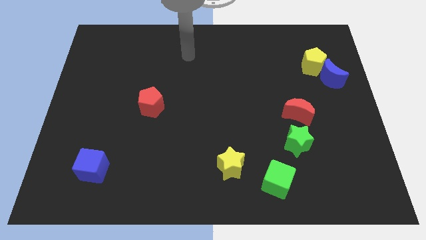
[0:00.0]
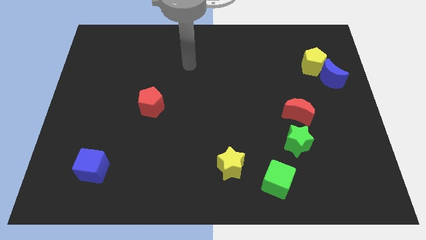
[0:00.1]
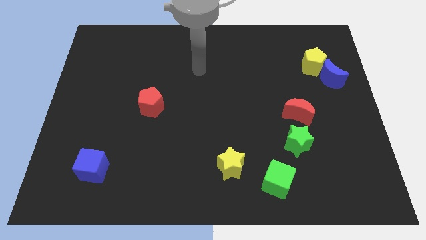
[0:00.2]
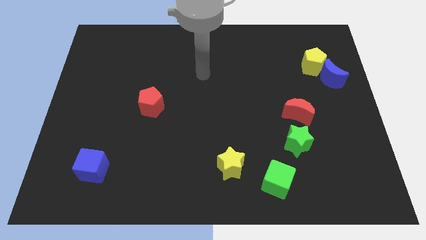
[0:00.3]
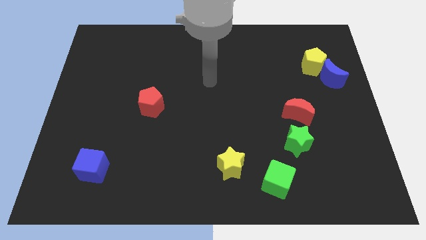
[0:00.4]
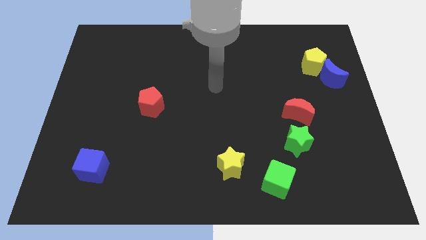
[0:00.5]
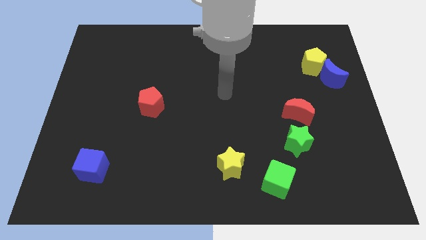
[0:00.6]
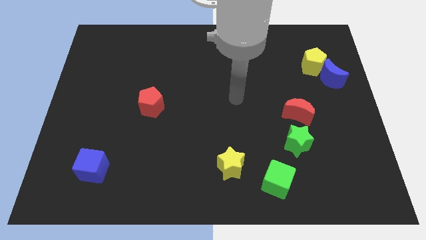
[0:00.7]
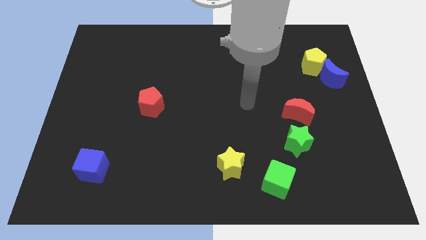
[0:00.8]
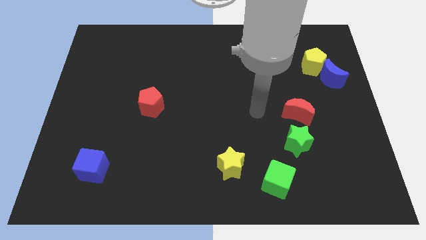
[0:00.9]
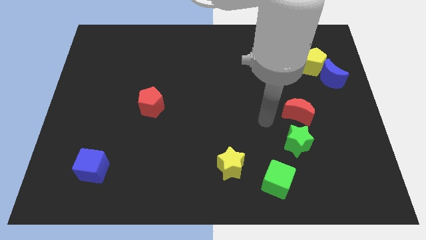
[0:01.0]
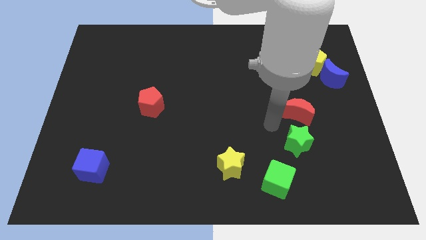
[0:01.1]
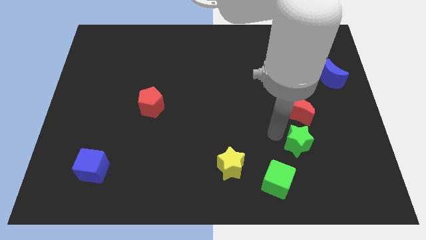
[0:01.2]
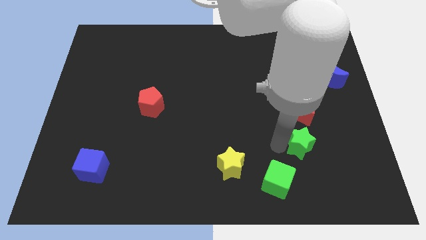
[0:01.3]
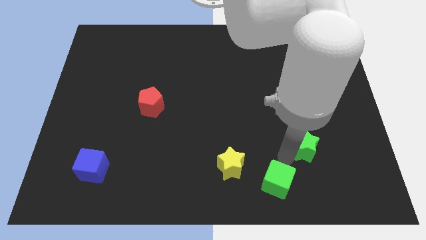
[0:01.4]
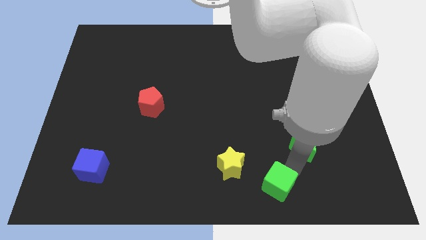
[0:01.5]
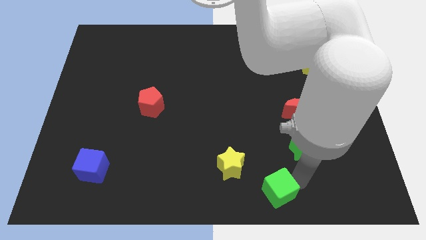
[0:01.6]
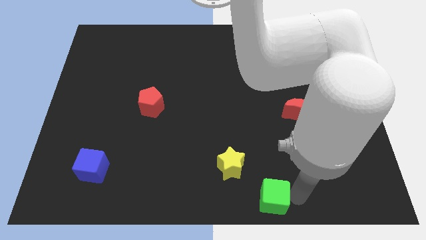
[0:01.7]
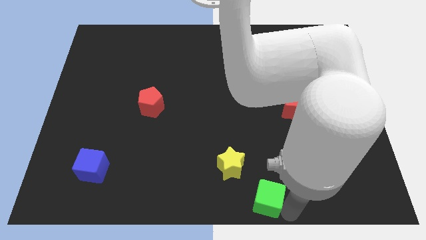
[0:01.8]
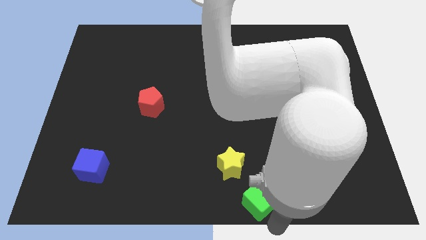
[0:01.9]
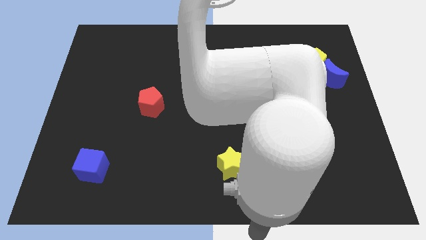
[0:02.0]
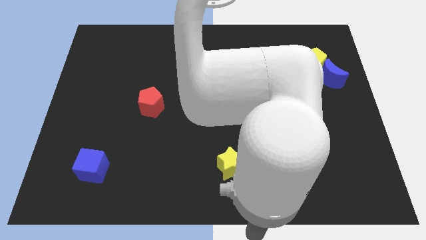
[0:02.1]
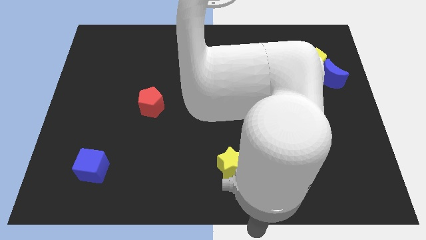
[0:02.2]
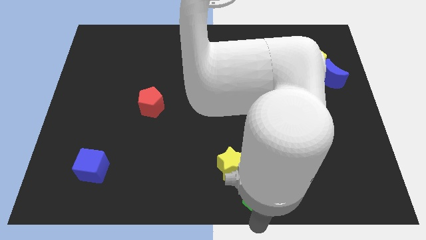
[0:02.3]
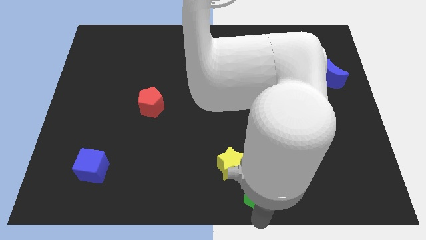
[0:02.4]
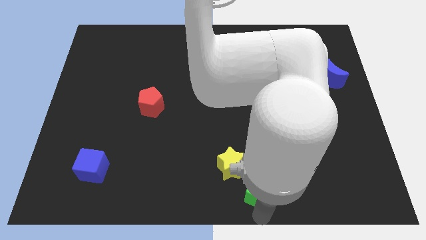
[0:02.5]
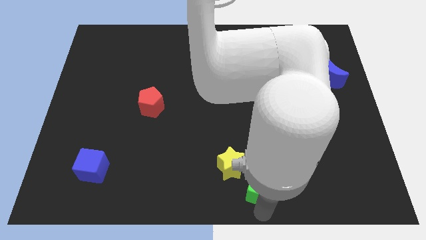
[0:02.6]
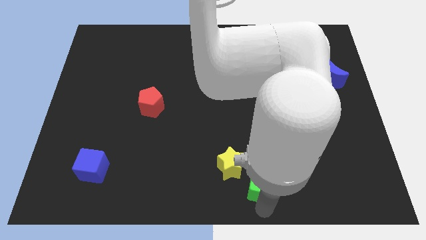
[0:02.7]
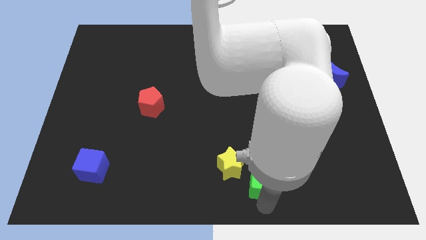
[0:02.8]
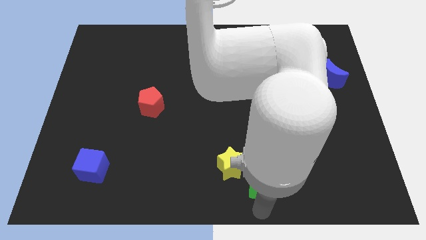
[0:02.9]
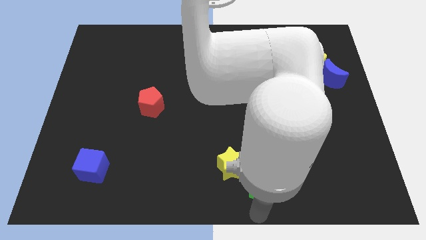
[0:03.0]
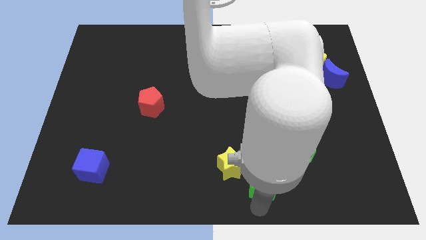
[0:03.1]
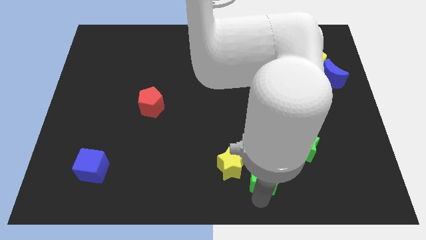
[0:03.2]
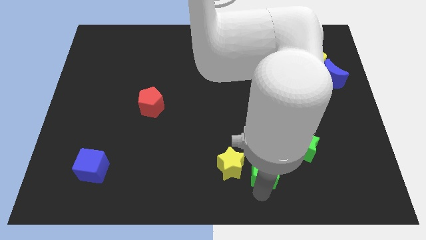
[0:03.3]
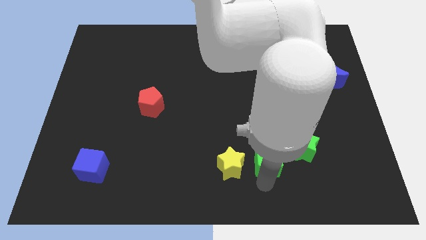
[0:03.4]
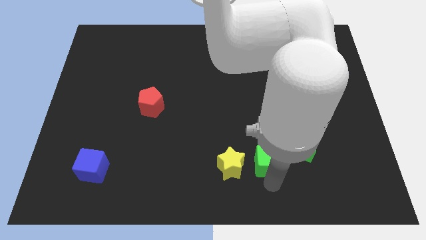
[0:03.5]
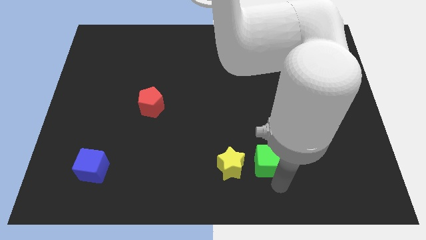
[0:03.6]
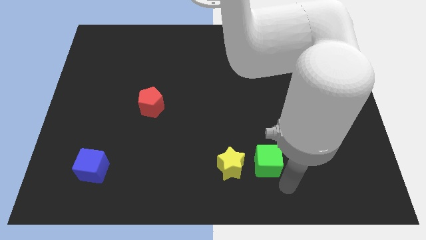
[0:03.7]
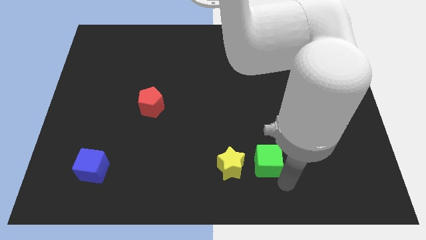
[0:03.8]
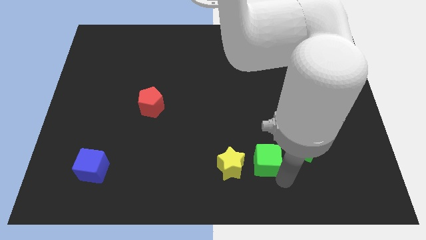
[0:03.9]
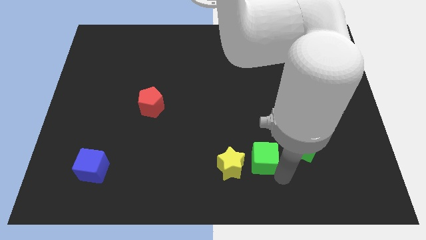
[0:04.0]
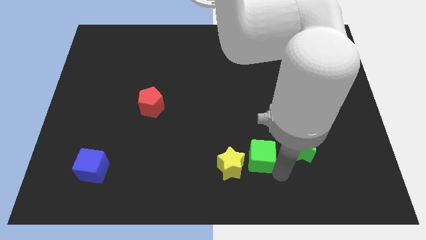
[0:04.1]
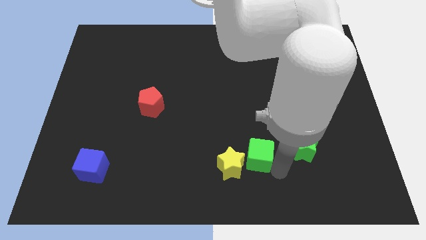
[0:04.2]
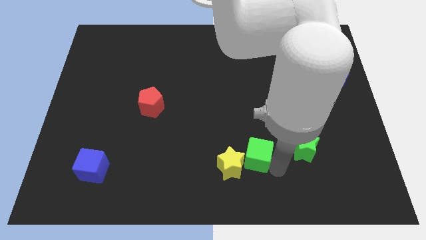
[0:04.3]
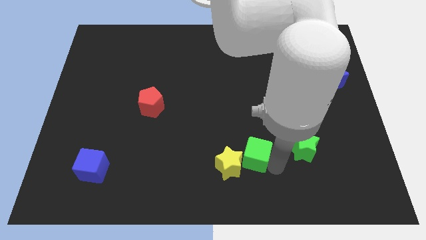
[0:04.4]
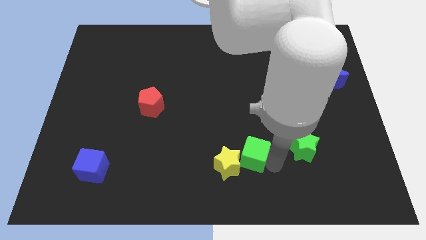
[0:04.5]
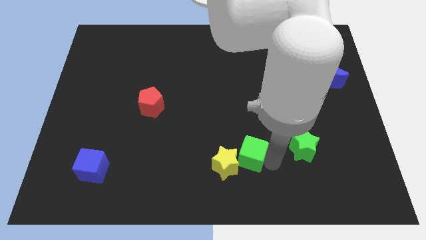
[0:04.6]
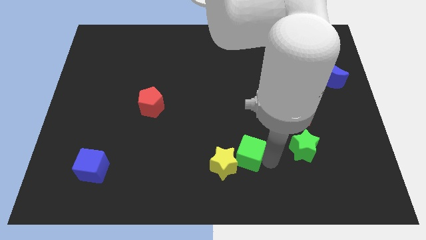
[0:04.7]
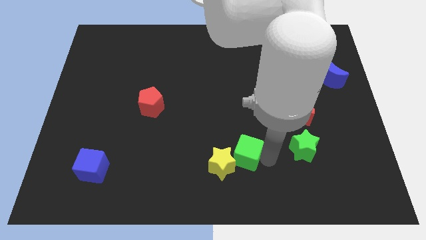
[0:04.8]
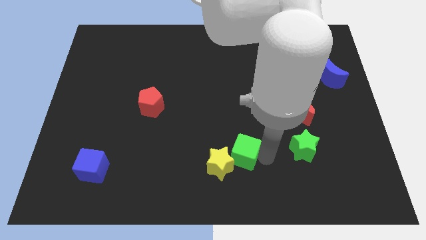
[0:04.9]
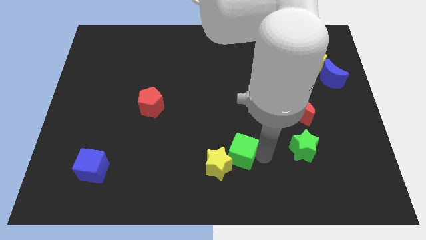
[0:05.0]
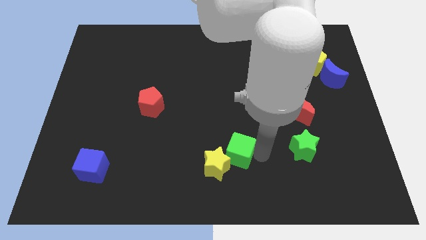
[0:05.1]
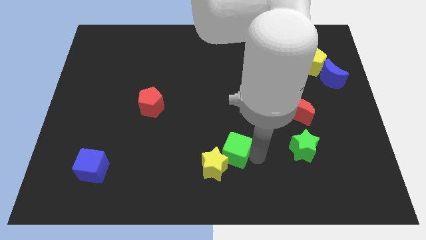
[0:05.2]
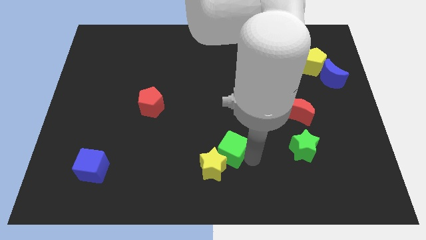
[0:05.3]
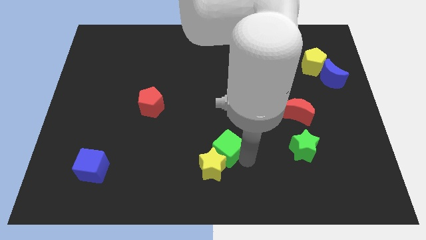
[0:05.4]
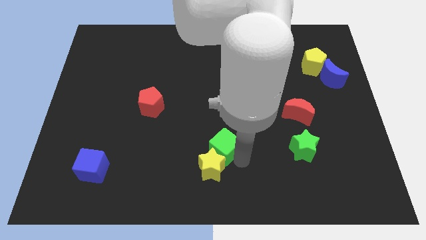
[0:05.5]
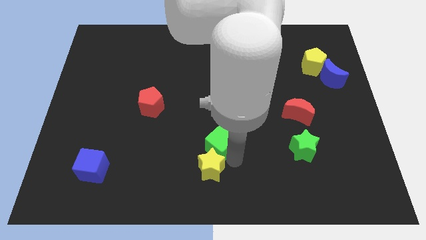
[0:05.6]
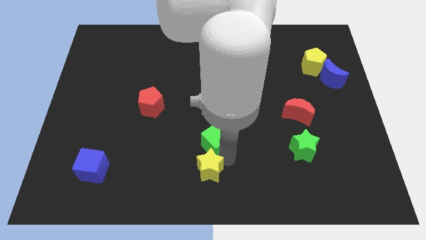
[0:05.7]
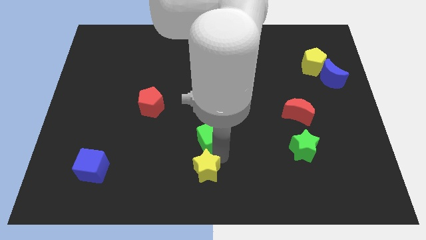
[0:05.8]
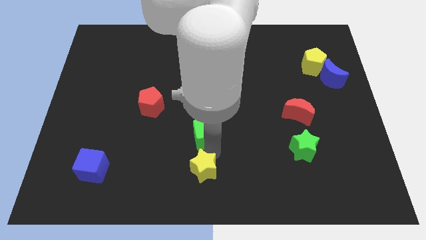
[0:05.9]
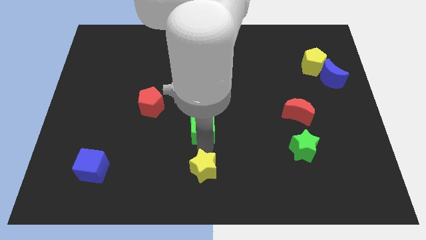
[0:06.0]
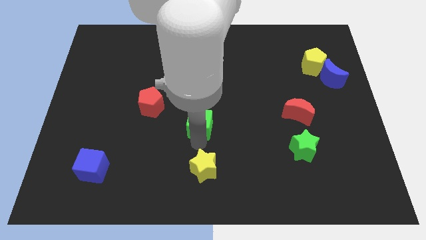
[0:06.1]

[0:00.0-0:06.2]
move the green cube upwards and left diagonally

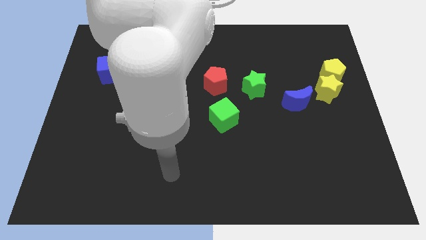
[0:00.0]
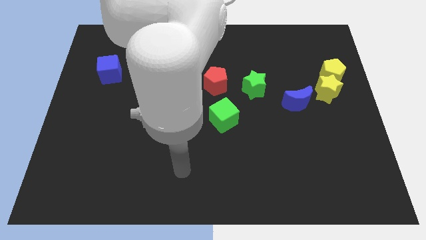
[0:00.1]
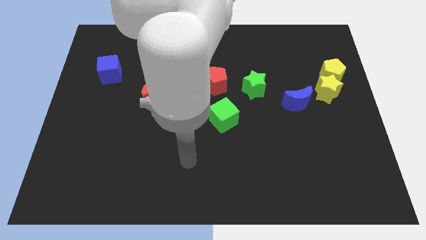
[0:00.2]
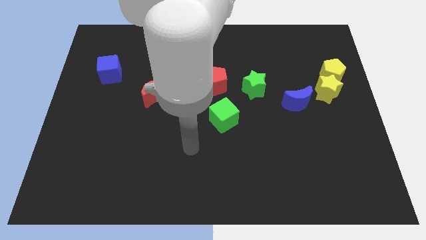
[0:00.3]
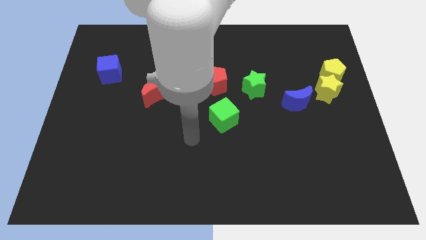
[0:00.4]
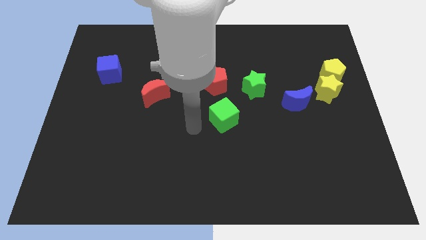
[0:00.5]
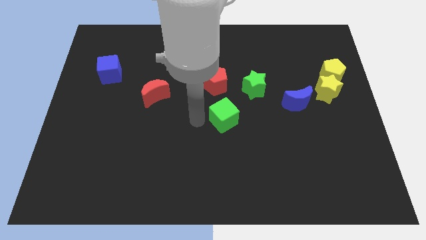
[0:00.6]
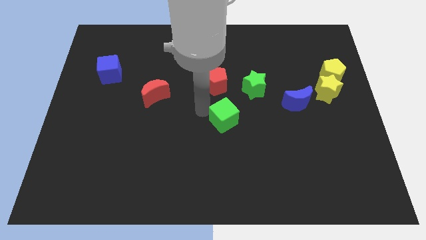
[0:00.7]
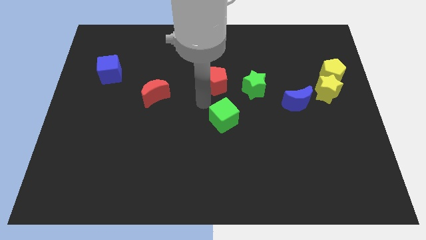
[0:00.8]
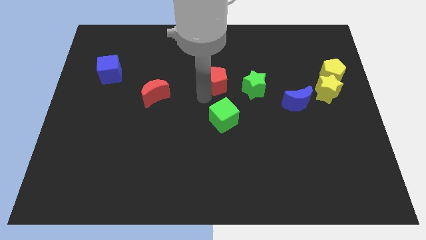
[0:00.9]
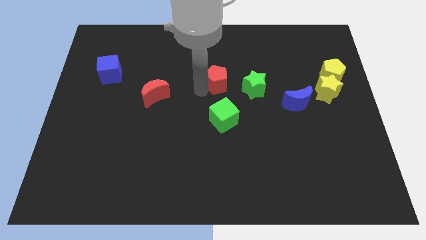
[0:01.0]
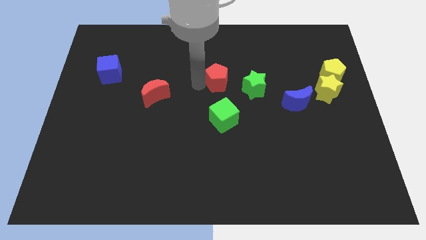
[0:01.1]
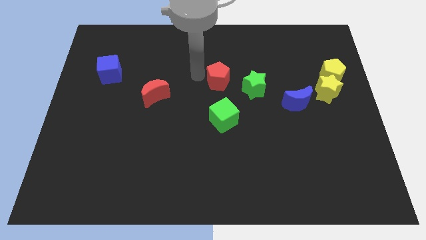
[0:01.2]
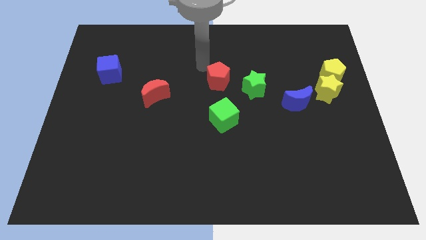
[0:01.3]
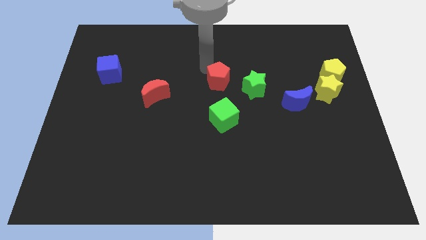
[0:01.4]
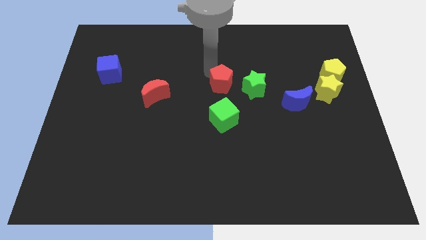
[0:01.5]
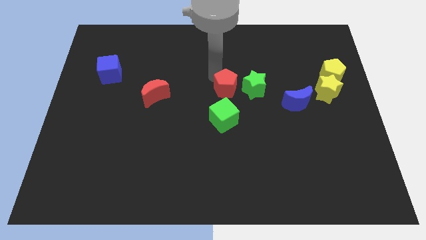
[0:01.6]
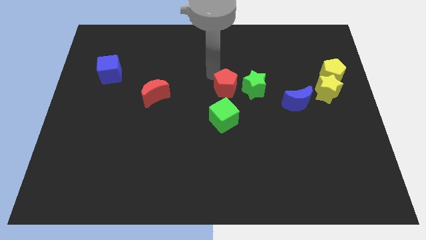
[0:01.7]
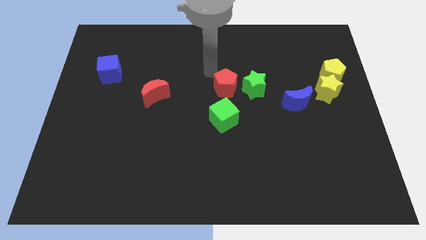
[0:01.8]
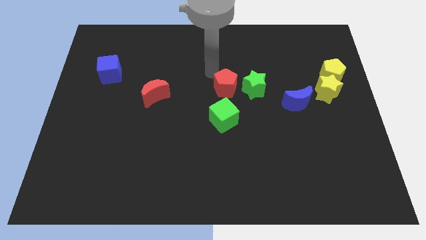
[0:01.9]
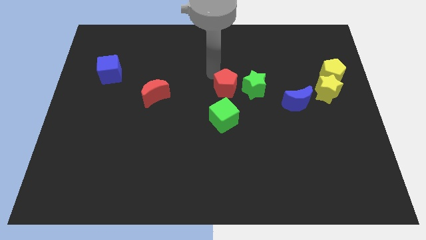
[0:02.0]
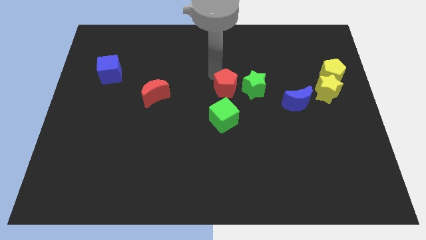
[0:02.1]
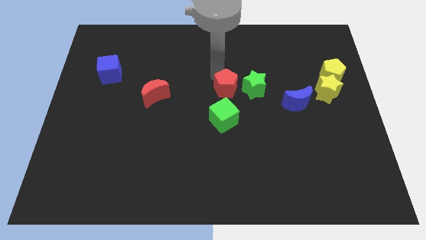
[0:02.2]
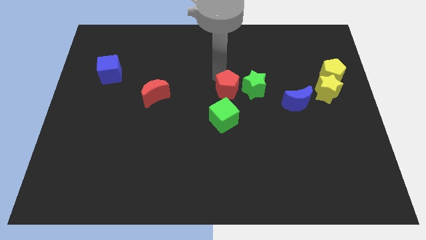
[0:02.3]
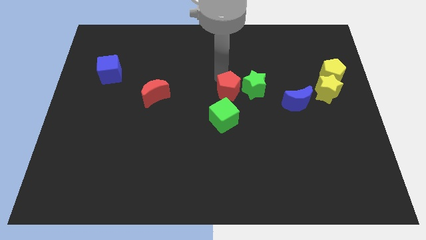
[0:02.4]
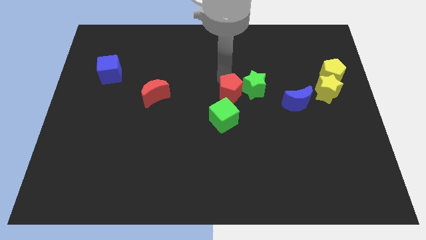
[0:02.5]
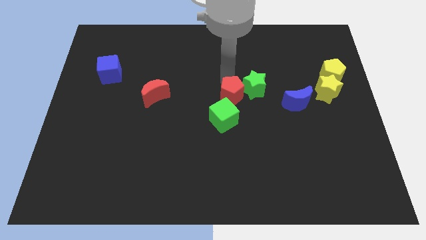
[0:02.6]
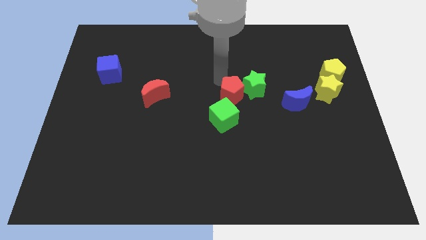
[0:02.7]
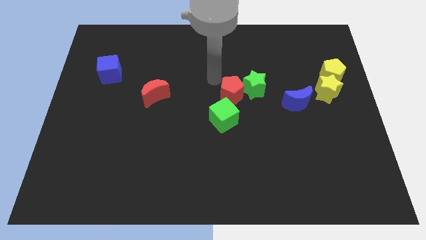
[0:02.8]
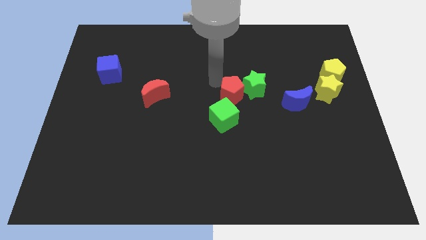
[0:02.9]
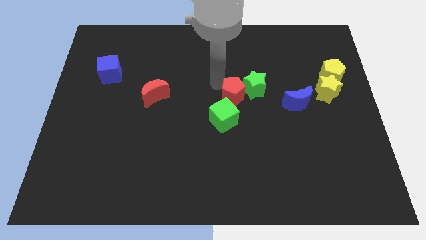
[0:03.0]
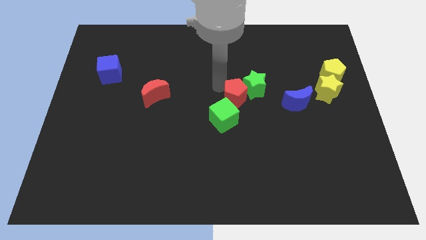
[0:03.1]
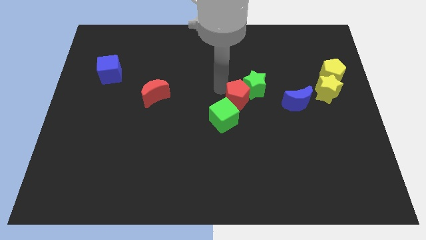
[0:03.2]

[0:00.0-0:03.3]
push the red pentagon diagonally downwards and to the right slightly
